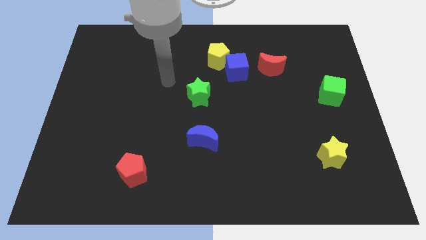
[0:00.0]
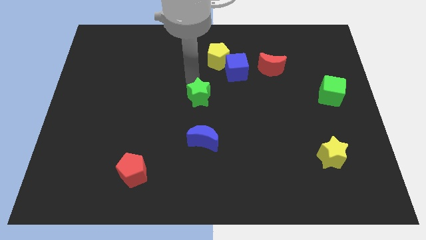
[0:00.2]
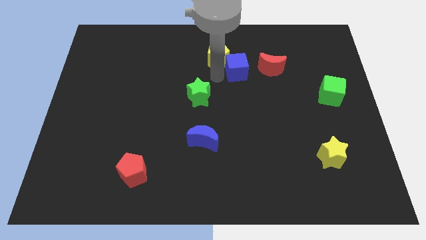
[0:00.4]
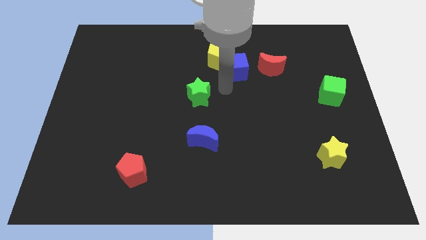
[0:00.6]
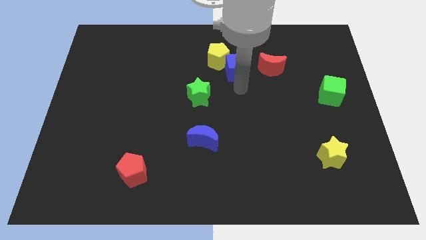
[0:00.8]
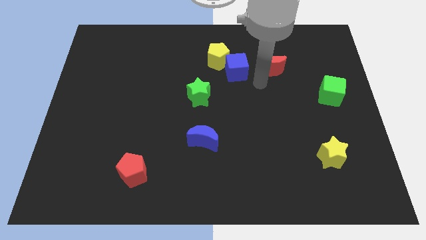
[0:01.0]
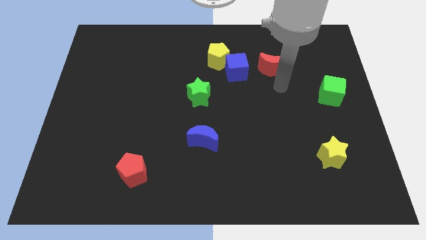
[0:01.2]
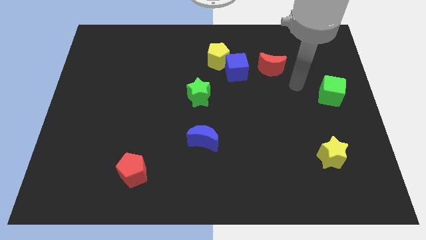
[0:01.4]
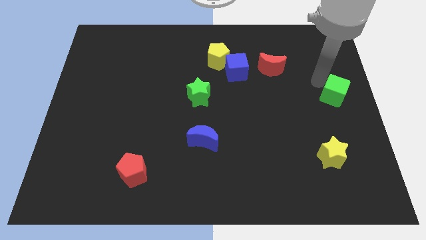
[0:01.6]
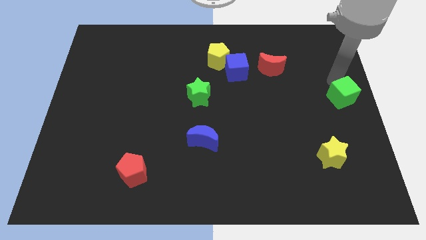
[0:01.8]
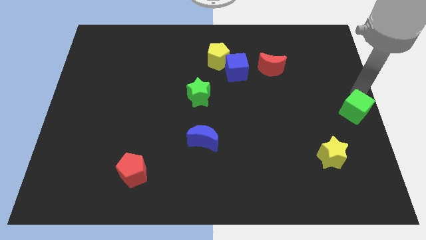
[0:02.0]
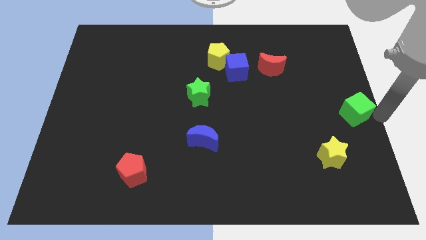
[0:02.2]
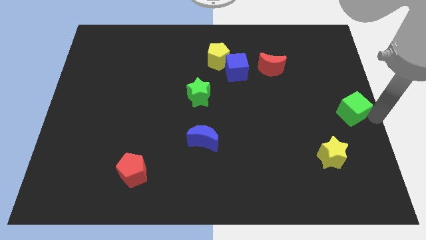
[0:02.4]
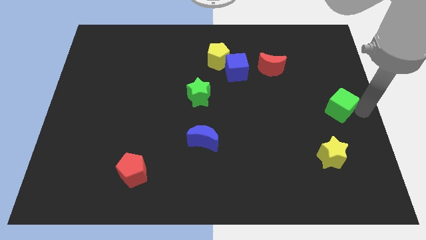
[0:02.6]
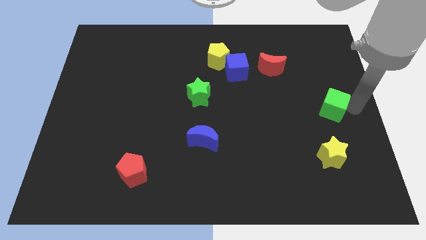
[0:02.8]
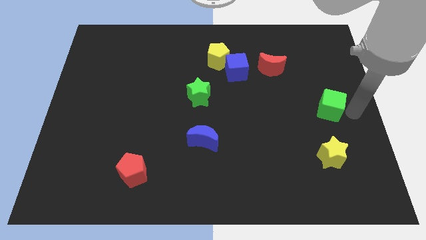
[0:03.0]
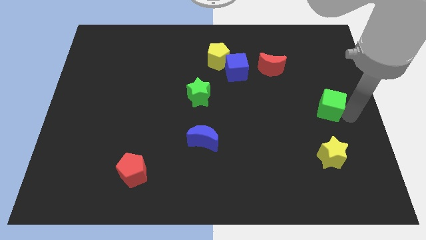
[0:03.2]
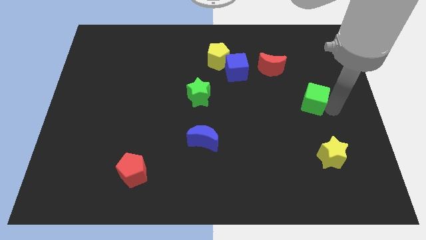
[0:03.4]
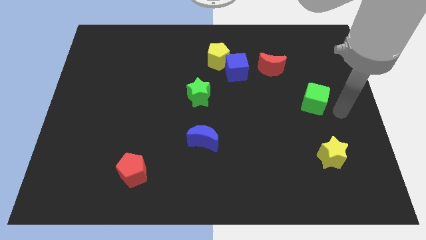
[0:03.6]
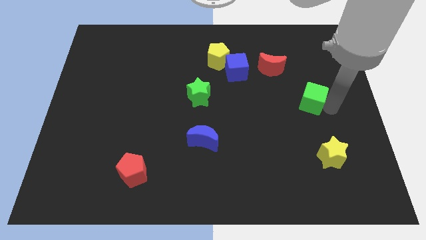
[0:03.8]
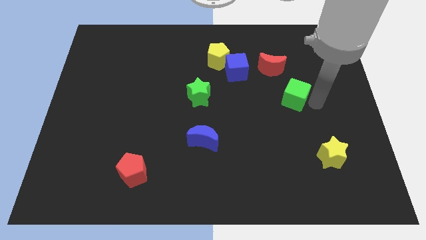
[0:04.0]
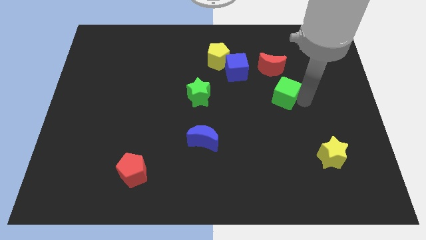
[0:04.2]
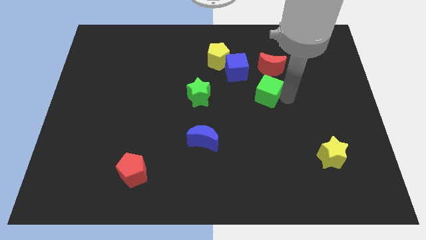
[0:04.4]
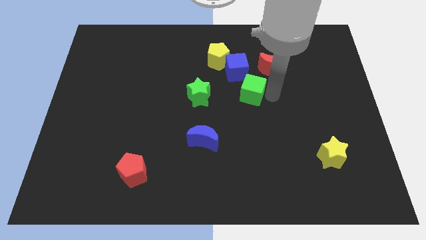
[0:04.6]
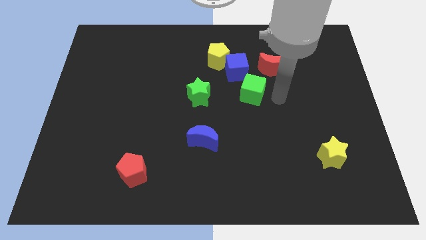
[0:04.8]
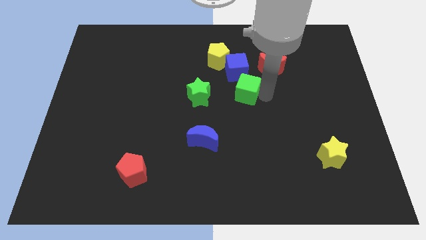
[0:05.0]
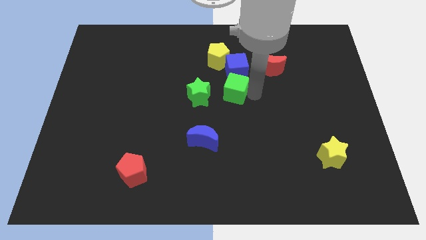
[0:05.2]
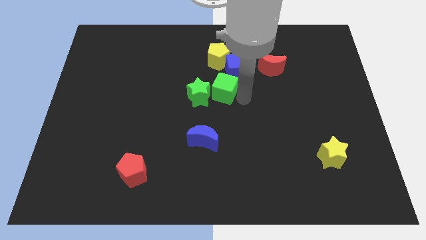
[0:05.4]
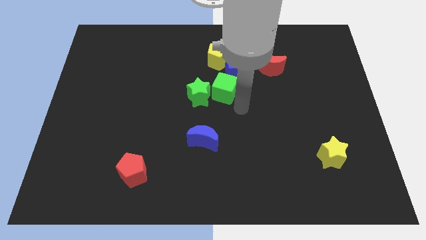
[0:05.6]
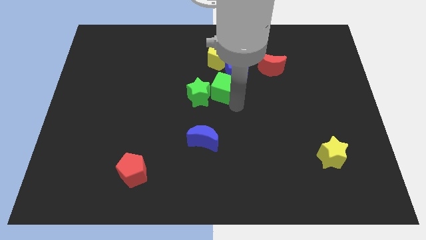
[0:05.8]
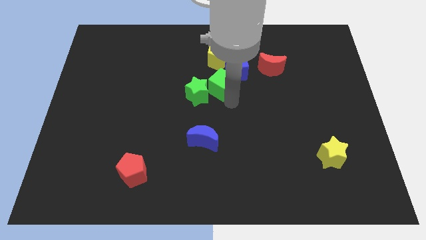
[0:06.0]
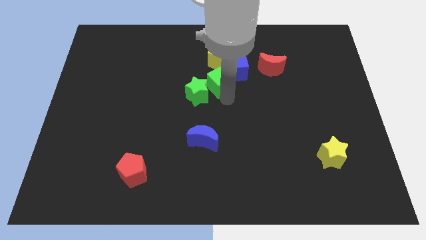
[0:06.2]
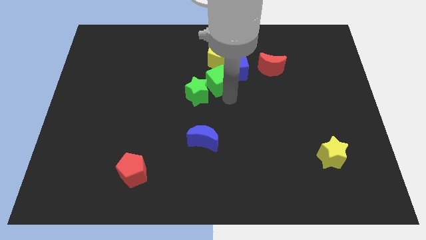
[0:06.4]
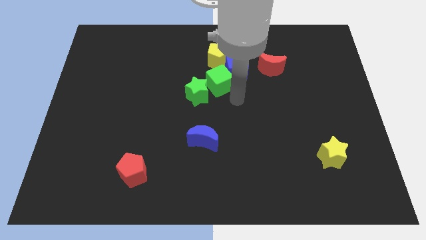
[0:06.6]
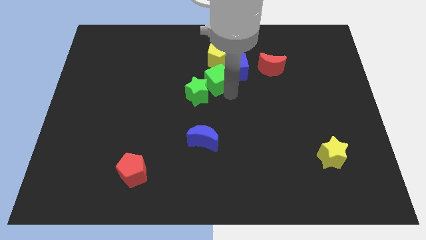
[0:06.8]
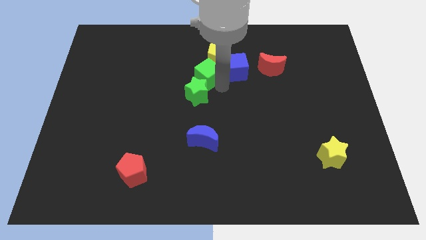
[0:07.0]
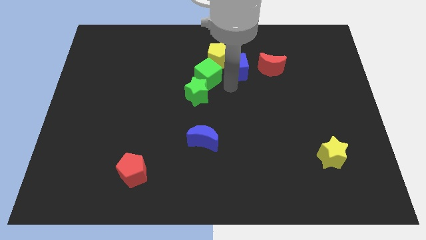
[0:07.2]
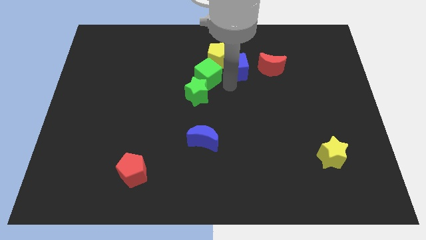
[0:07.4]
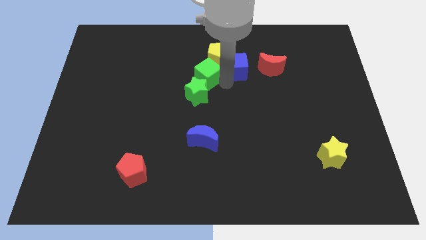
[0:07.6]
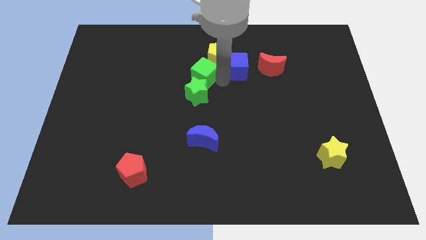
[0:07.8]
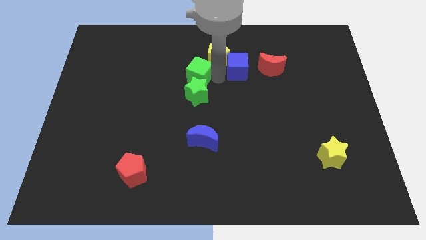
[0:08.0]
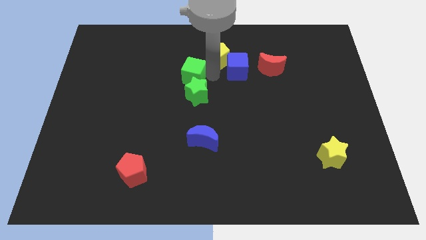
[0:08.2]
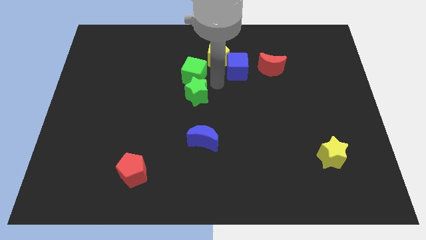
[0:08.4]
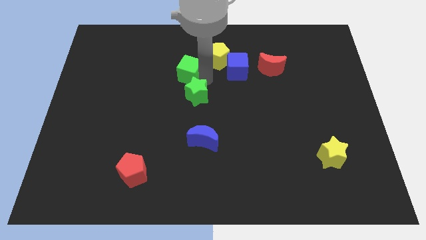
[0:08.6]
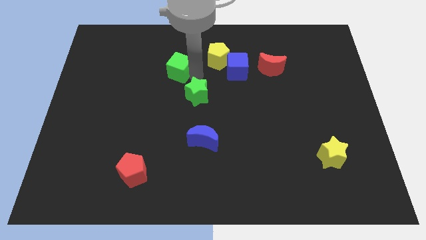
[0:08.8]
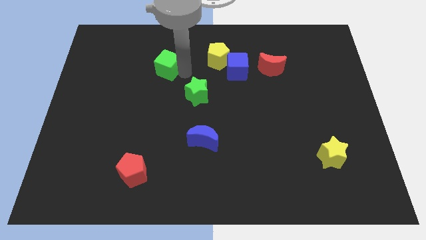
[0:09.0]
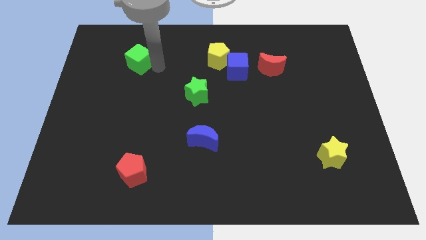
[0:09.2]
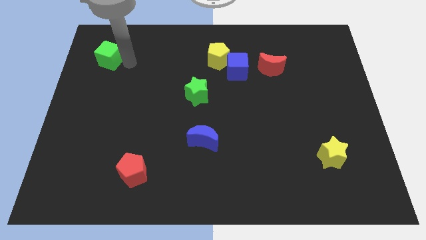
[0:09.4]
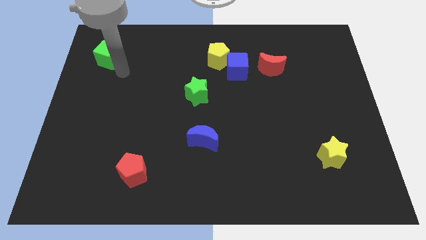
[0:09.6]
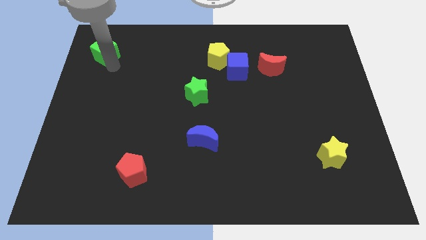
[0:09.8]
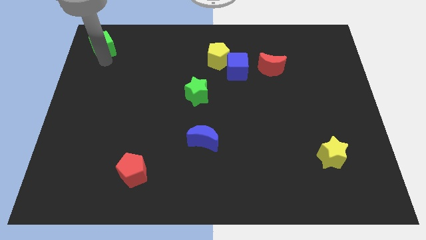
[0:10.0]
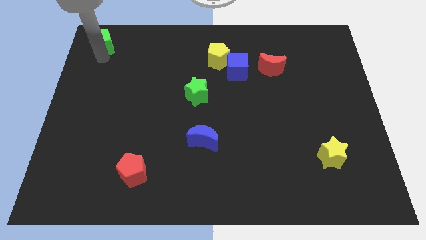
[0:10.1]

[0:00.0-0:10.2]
slide the green cube to the top left

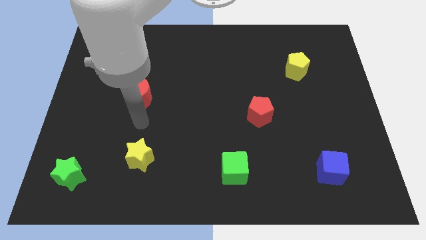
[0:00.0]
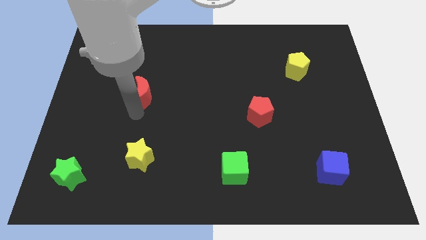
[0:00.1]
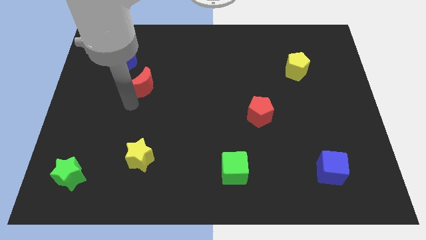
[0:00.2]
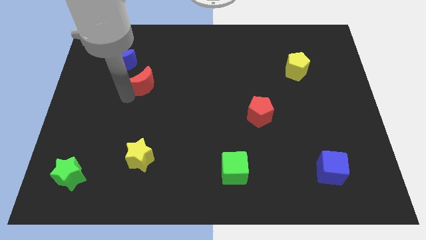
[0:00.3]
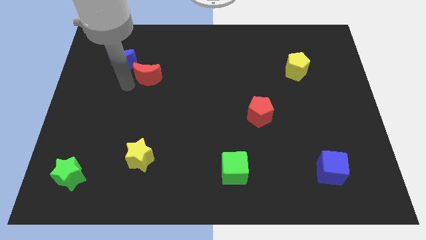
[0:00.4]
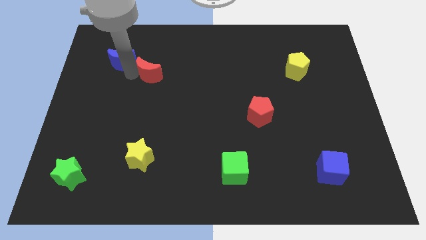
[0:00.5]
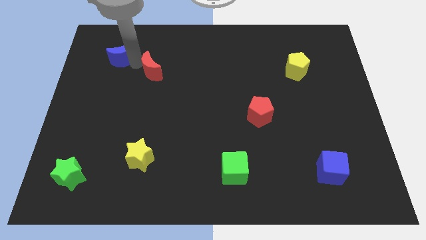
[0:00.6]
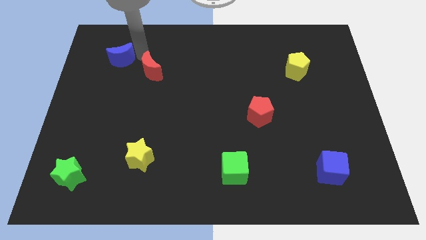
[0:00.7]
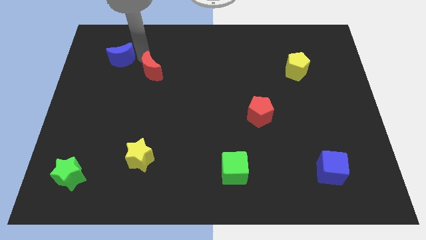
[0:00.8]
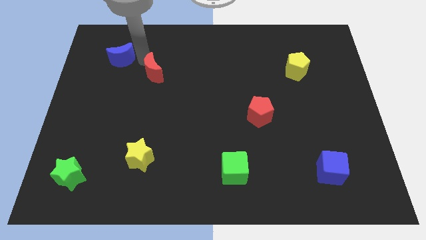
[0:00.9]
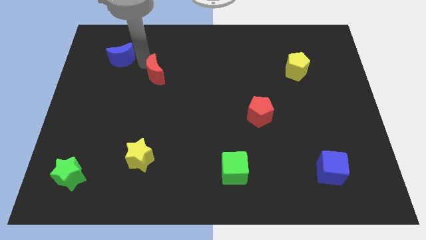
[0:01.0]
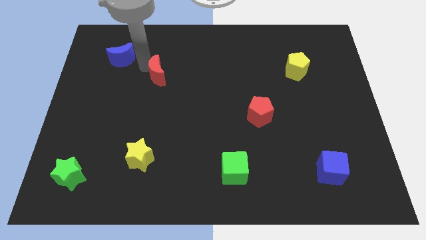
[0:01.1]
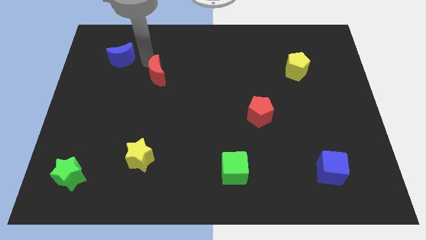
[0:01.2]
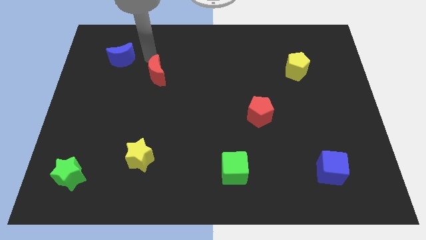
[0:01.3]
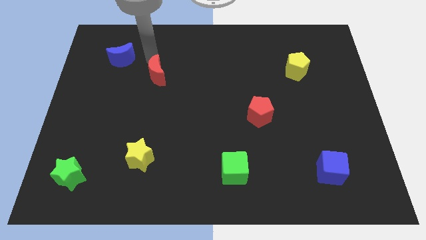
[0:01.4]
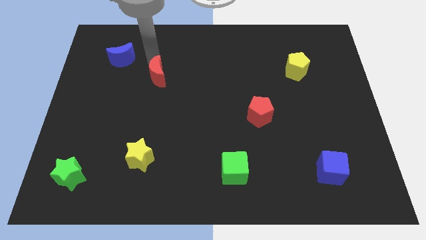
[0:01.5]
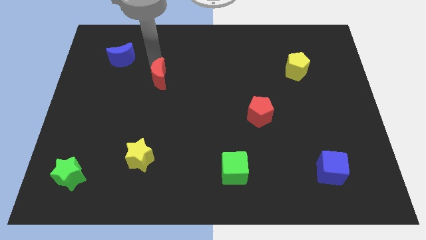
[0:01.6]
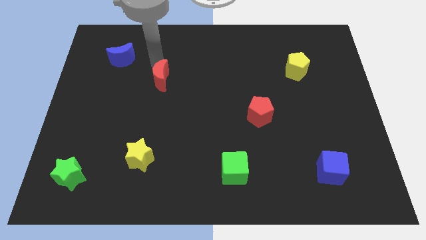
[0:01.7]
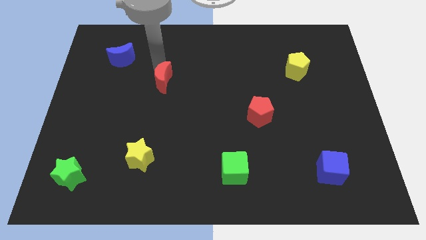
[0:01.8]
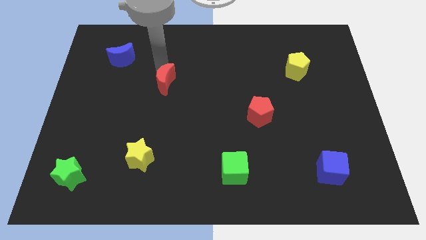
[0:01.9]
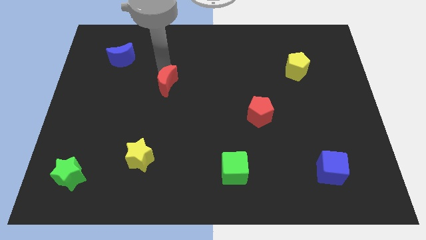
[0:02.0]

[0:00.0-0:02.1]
put the red moon to the middle of the board
